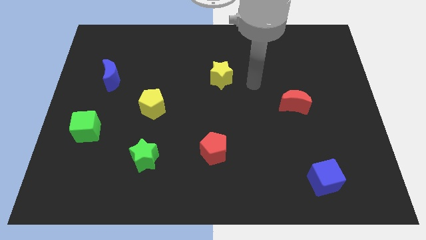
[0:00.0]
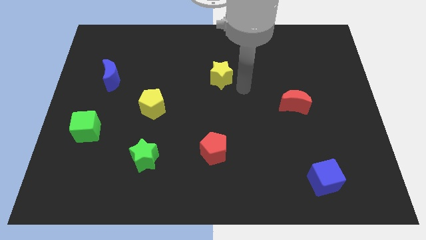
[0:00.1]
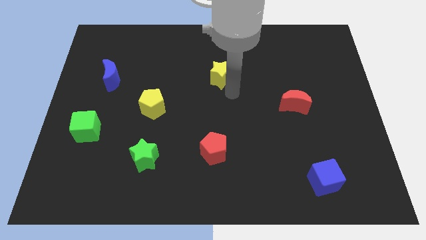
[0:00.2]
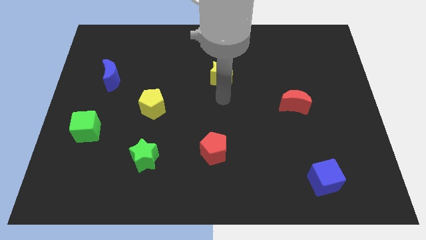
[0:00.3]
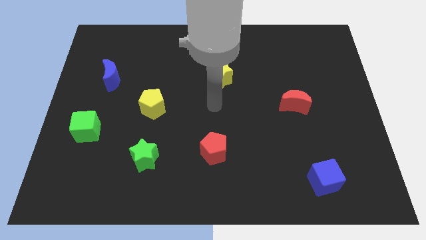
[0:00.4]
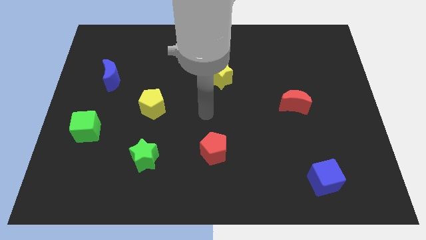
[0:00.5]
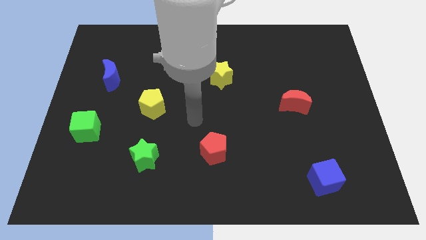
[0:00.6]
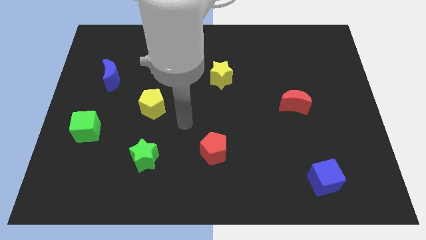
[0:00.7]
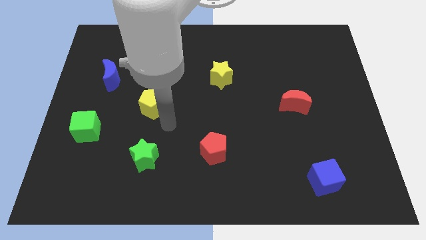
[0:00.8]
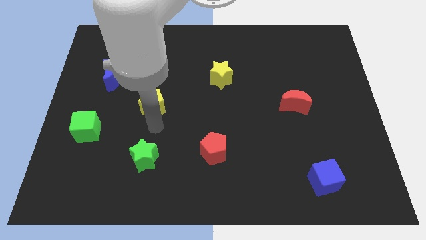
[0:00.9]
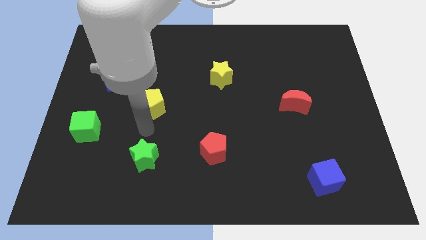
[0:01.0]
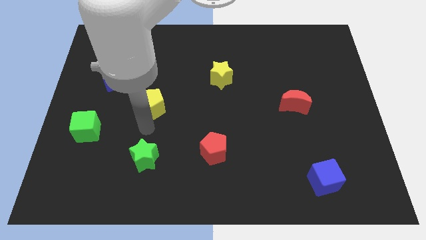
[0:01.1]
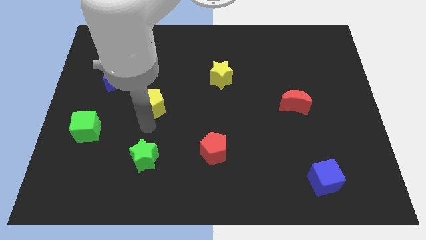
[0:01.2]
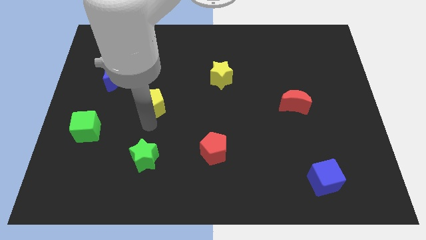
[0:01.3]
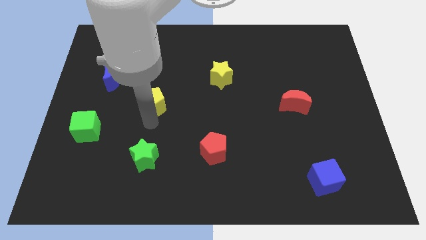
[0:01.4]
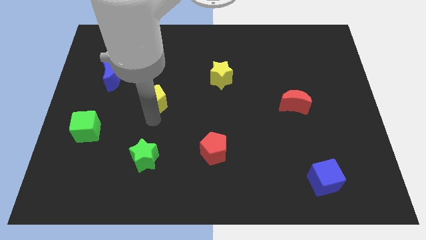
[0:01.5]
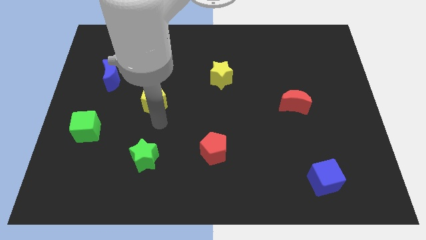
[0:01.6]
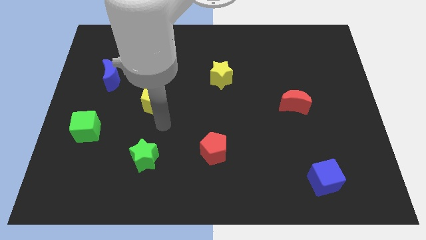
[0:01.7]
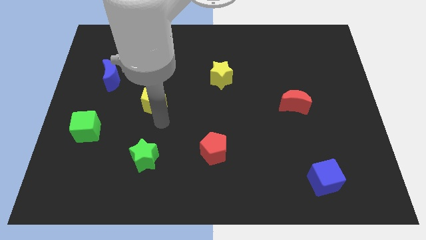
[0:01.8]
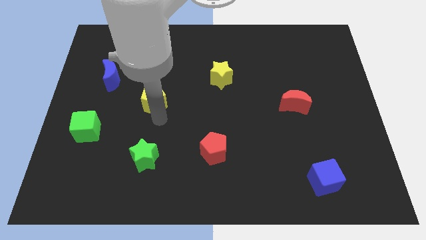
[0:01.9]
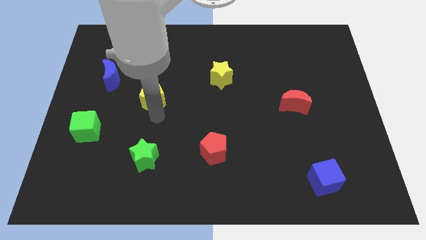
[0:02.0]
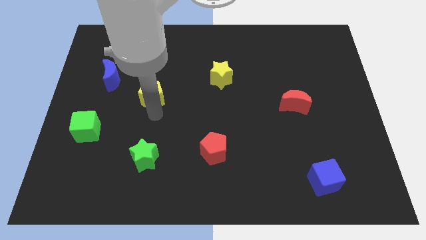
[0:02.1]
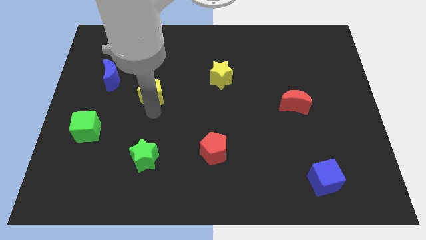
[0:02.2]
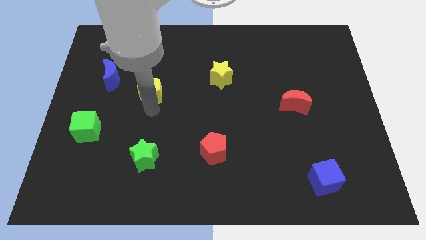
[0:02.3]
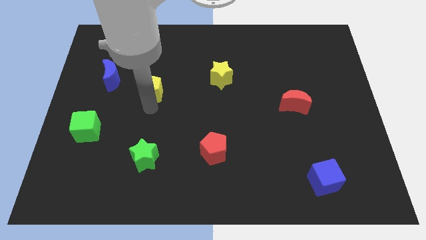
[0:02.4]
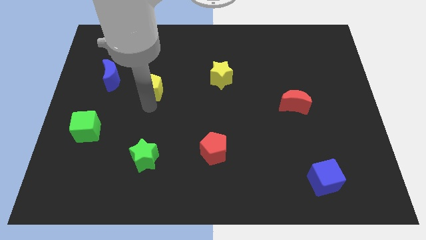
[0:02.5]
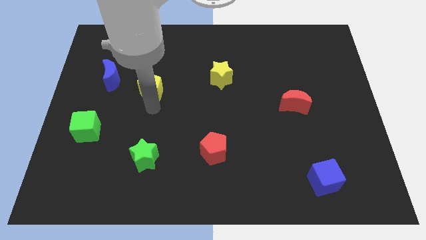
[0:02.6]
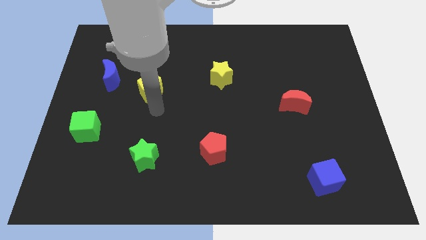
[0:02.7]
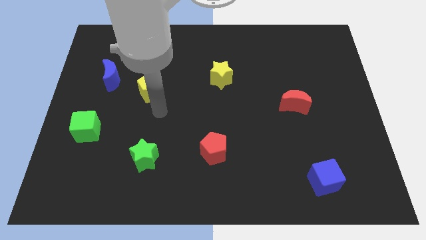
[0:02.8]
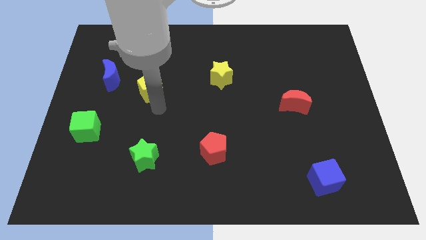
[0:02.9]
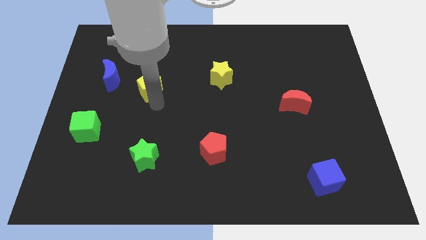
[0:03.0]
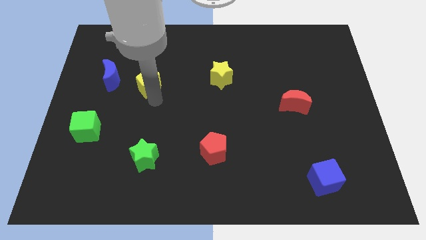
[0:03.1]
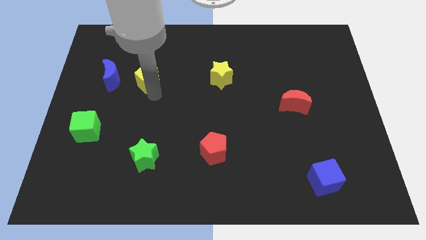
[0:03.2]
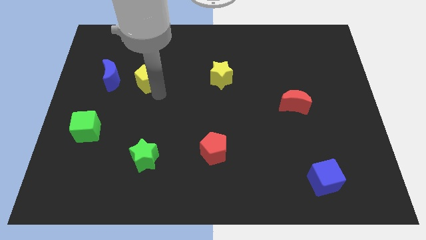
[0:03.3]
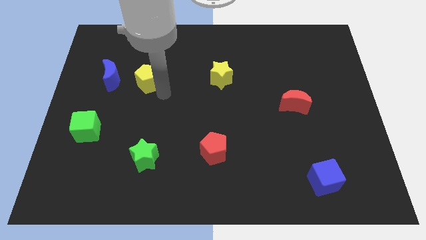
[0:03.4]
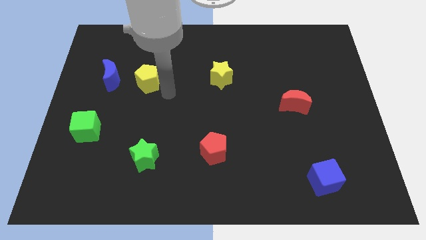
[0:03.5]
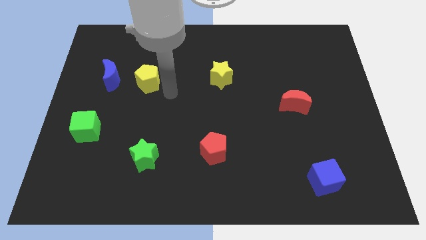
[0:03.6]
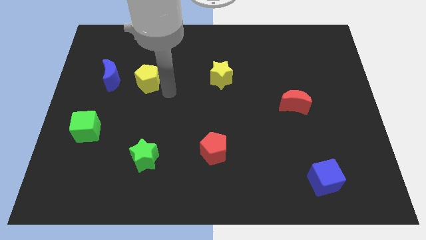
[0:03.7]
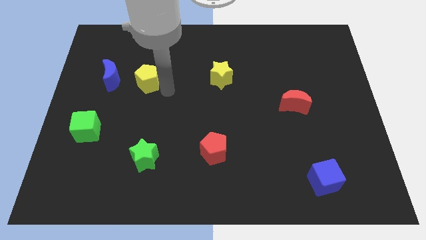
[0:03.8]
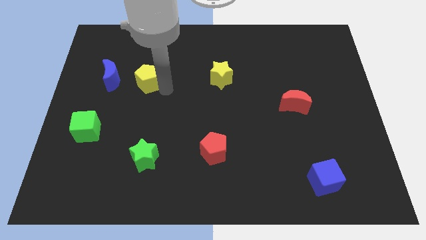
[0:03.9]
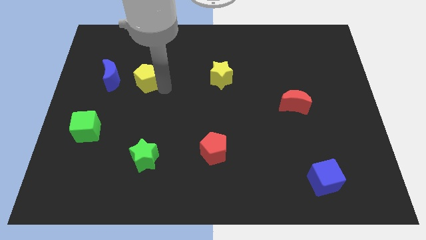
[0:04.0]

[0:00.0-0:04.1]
slide the yellow pentagon upwards and to the left a bit

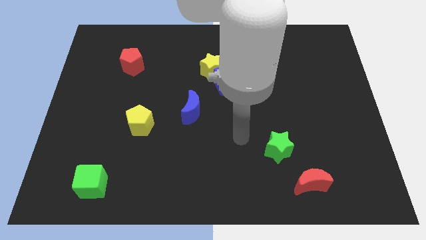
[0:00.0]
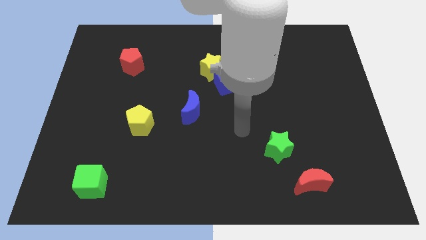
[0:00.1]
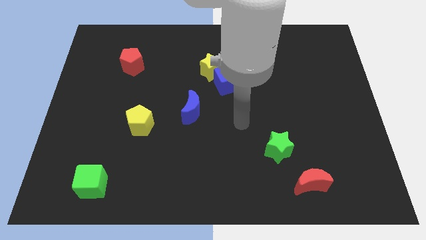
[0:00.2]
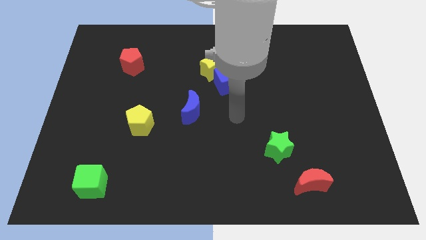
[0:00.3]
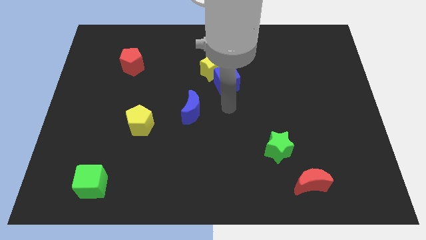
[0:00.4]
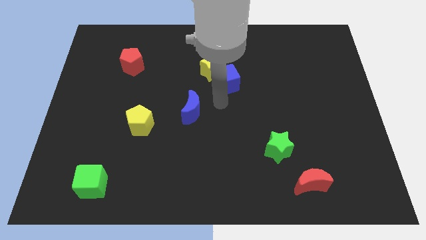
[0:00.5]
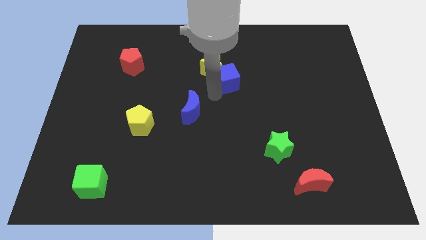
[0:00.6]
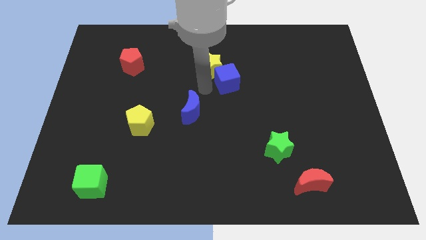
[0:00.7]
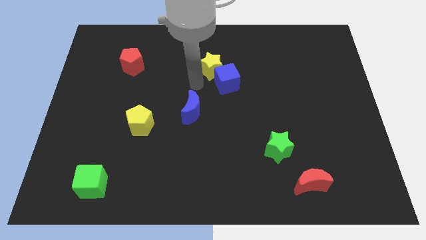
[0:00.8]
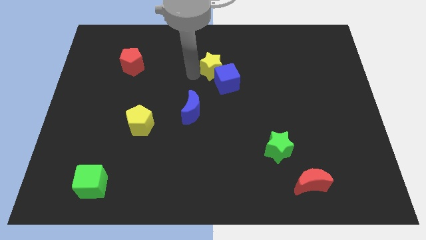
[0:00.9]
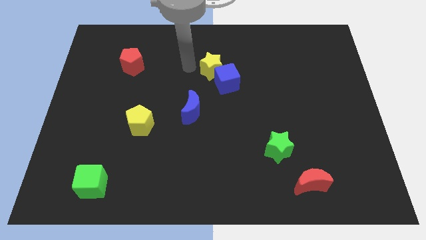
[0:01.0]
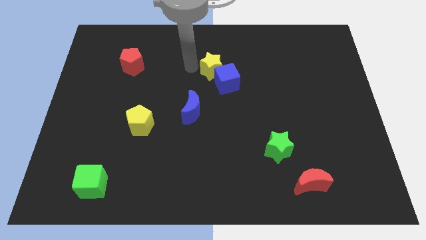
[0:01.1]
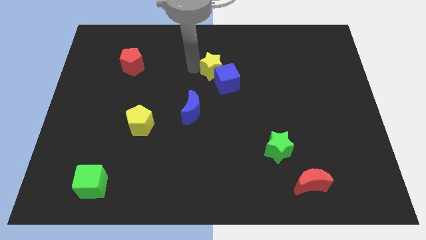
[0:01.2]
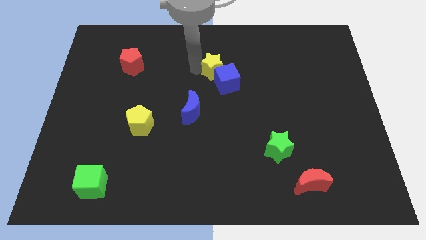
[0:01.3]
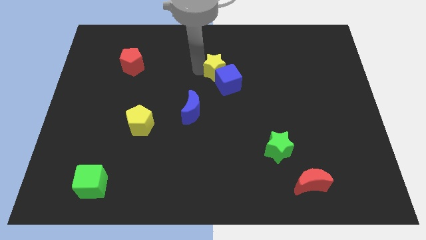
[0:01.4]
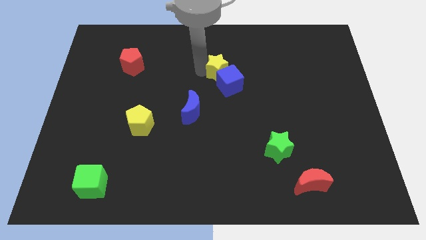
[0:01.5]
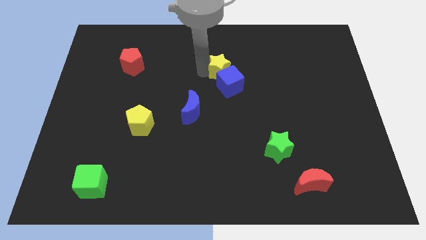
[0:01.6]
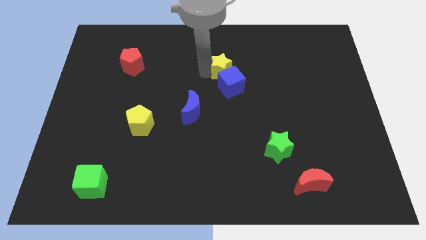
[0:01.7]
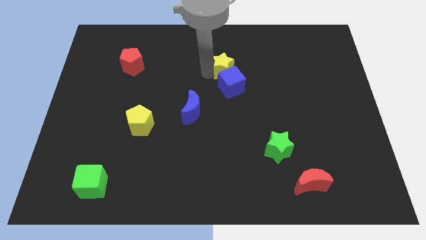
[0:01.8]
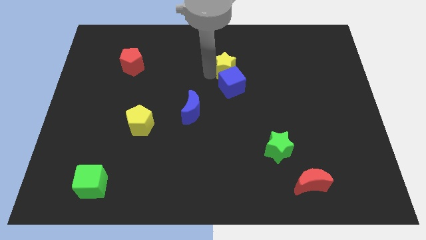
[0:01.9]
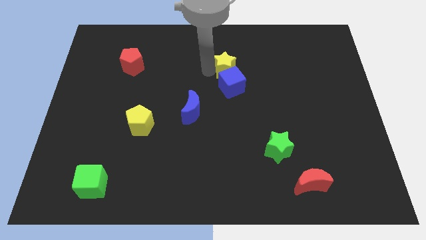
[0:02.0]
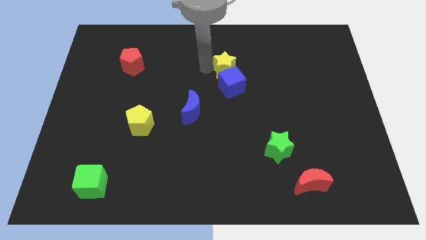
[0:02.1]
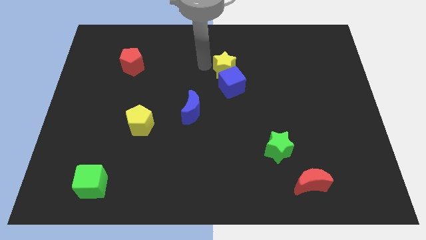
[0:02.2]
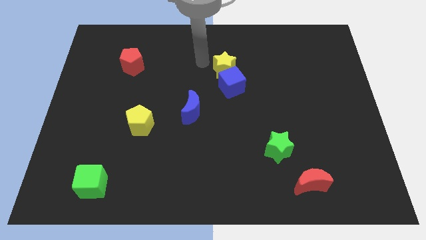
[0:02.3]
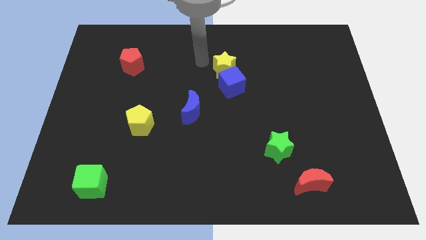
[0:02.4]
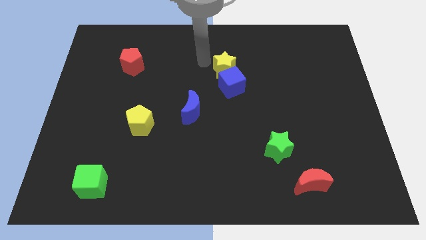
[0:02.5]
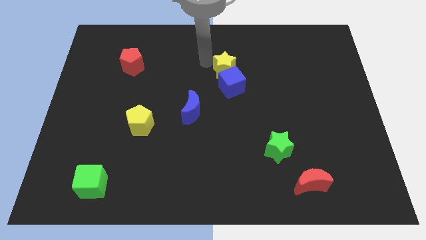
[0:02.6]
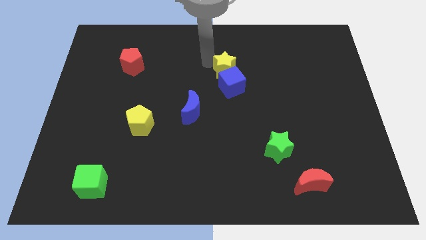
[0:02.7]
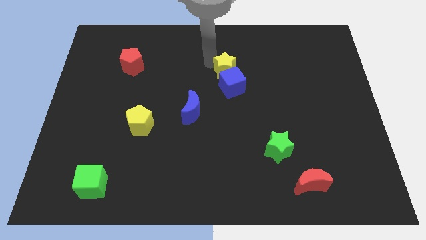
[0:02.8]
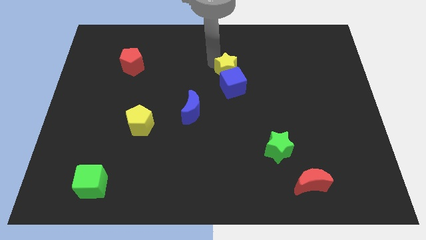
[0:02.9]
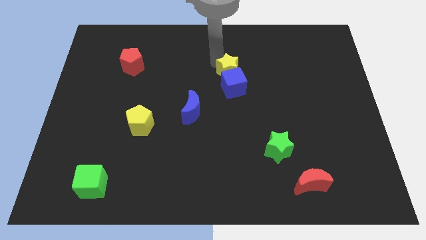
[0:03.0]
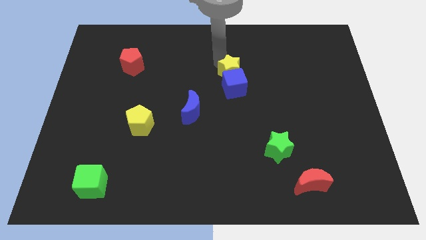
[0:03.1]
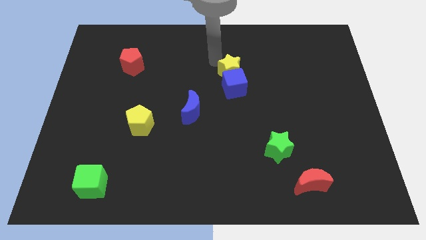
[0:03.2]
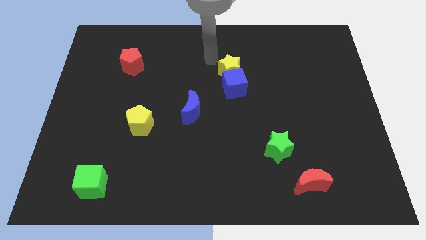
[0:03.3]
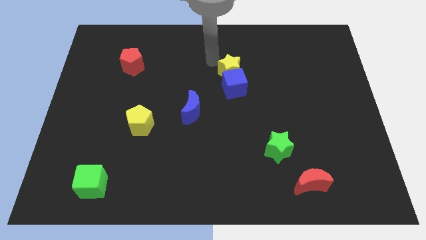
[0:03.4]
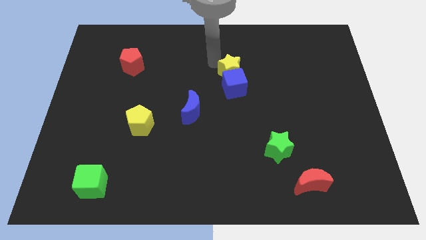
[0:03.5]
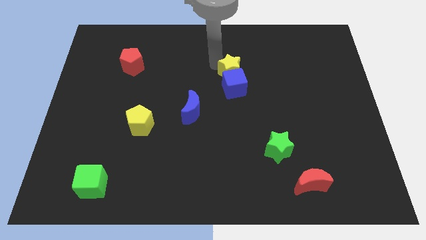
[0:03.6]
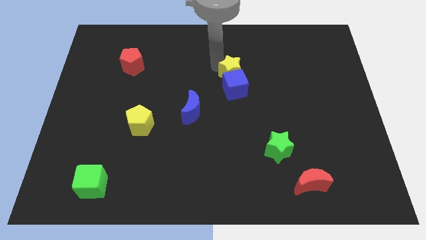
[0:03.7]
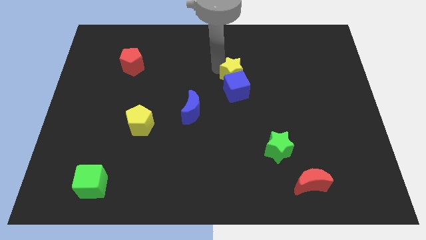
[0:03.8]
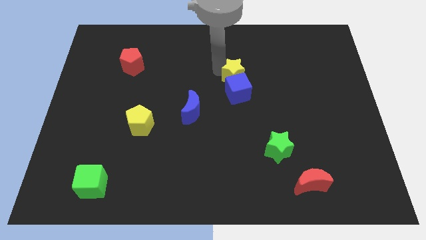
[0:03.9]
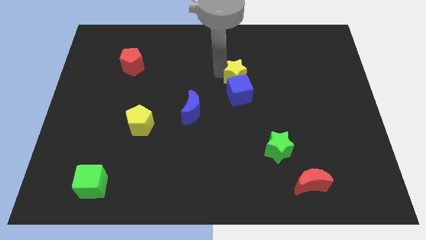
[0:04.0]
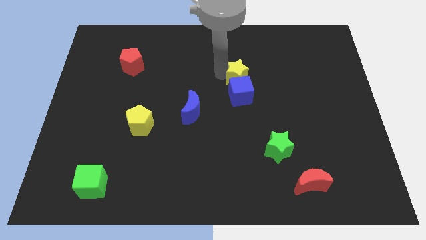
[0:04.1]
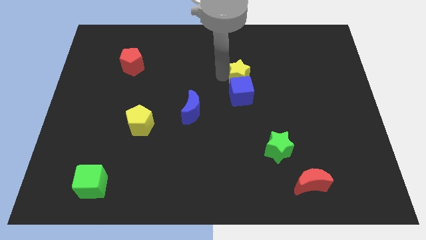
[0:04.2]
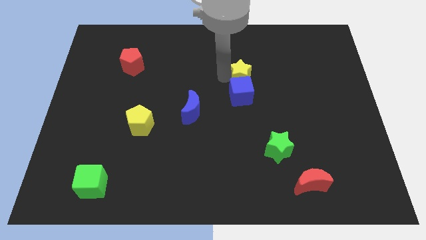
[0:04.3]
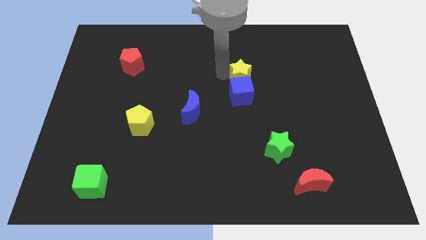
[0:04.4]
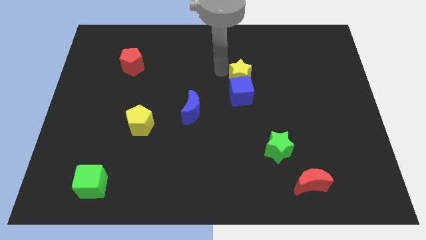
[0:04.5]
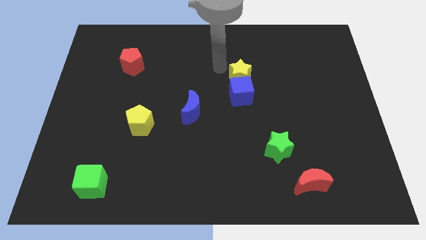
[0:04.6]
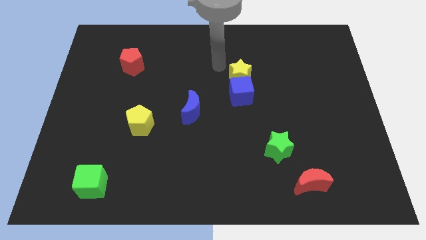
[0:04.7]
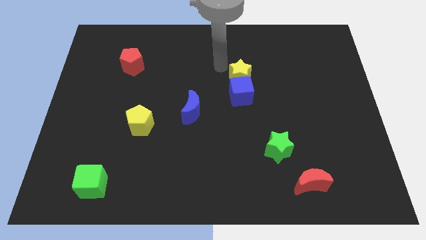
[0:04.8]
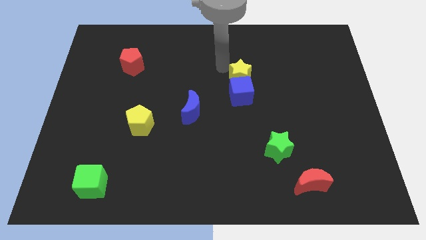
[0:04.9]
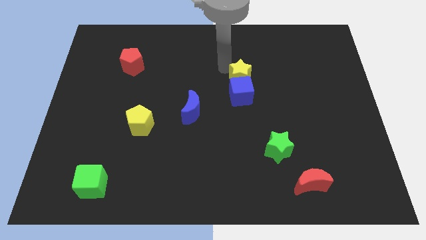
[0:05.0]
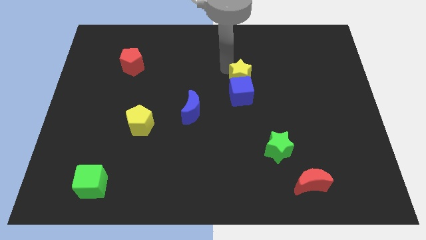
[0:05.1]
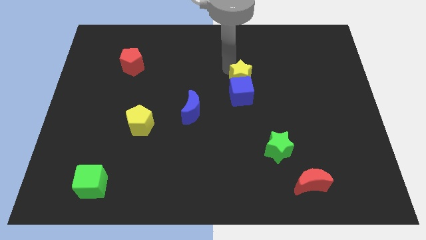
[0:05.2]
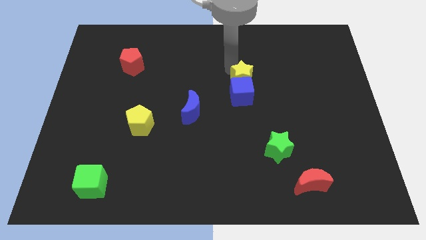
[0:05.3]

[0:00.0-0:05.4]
slightly push the yellow star diagonally downwards and right
